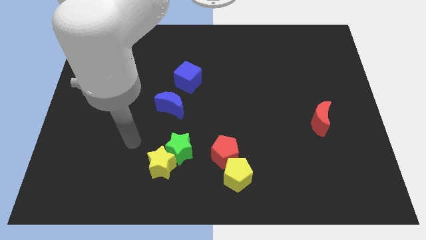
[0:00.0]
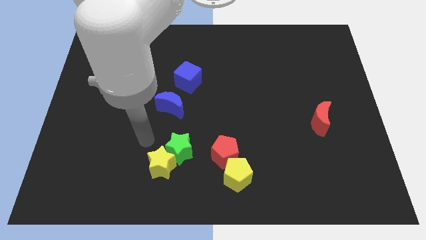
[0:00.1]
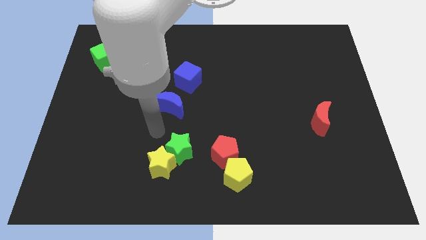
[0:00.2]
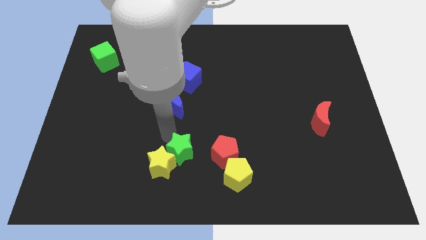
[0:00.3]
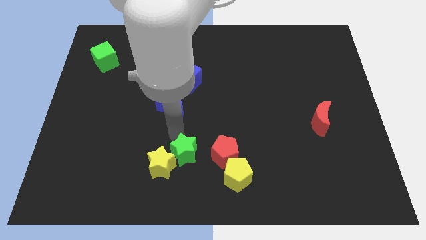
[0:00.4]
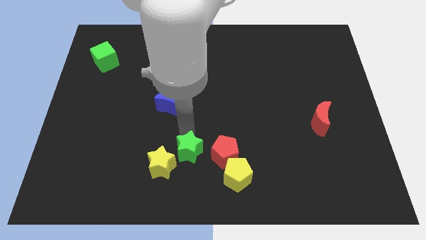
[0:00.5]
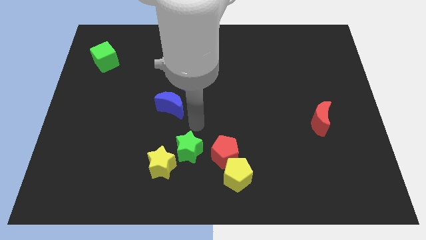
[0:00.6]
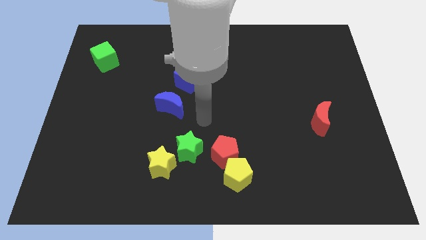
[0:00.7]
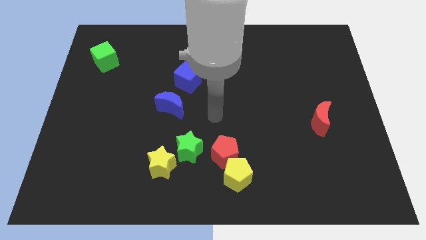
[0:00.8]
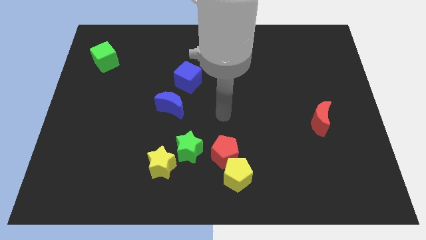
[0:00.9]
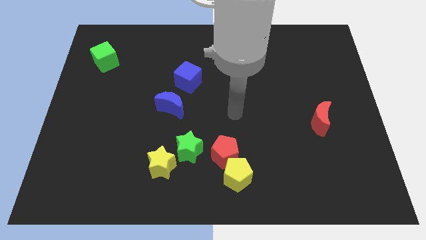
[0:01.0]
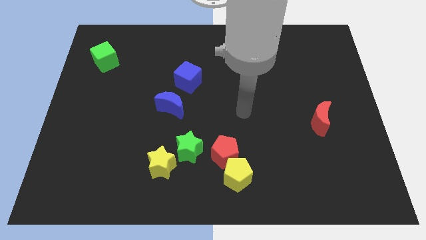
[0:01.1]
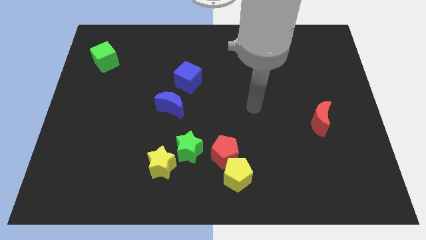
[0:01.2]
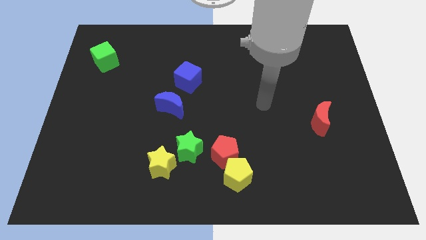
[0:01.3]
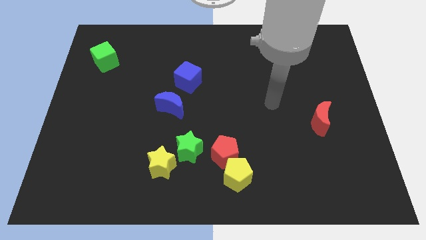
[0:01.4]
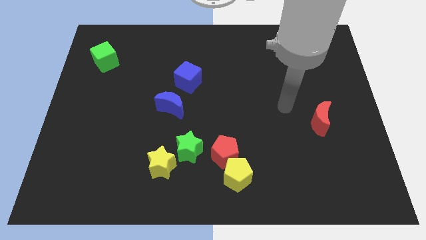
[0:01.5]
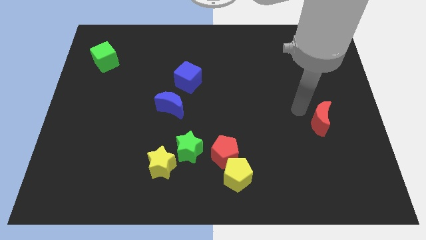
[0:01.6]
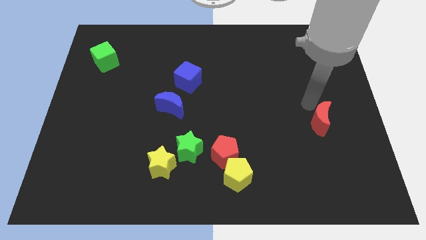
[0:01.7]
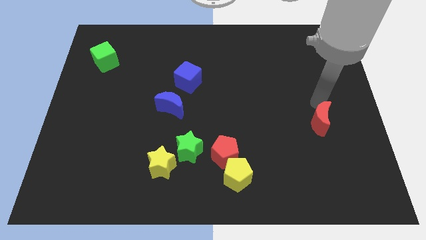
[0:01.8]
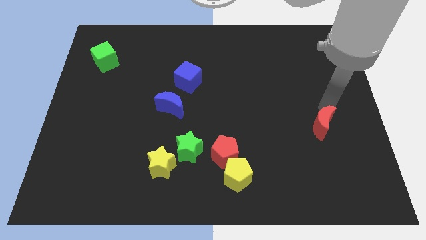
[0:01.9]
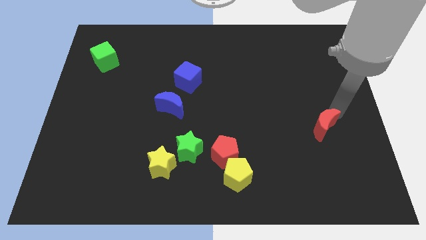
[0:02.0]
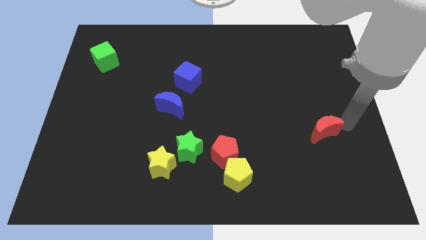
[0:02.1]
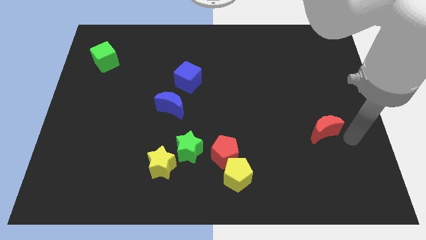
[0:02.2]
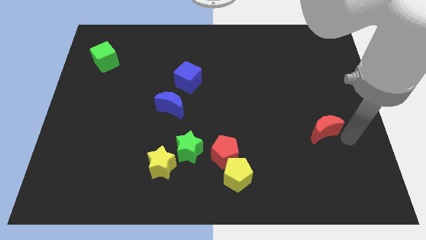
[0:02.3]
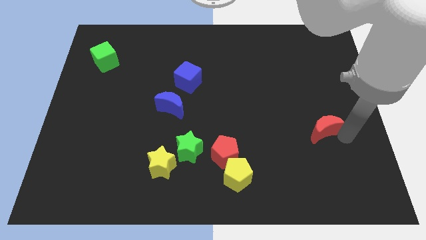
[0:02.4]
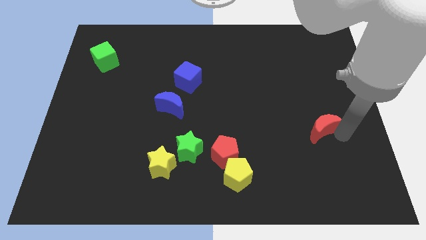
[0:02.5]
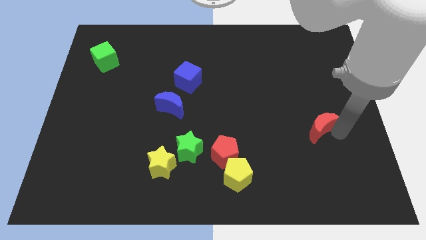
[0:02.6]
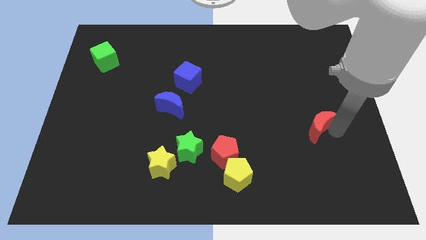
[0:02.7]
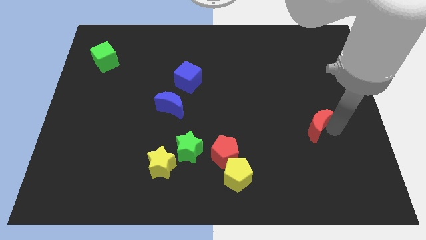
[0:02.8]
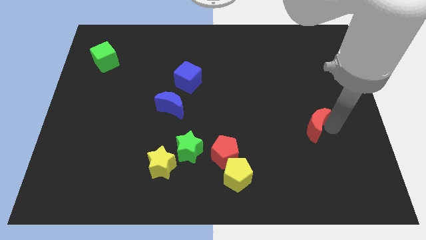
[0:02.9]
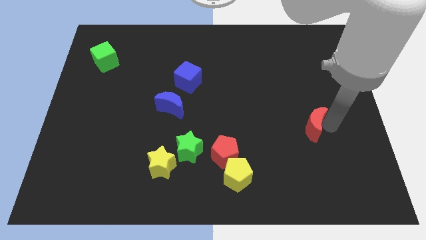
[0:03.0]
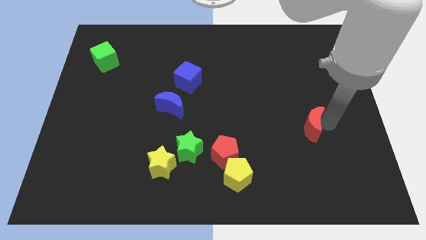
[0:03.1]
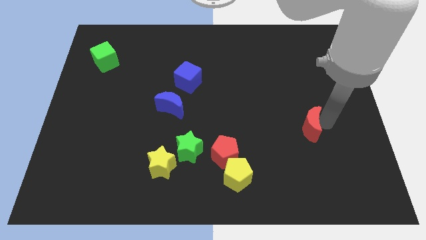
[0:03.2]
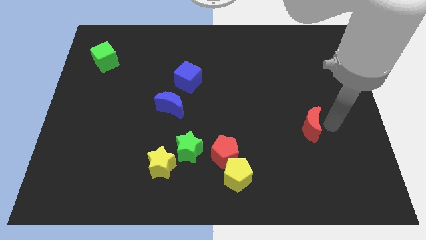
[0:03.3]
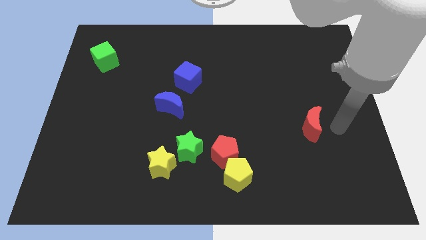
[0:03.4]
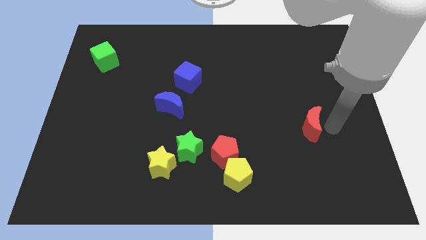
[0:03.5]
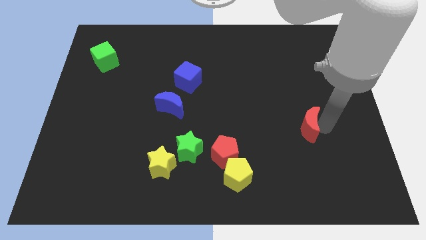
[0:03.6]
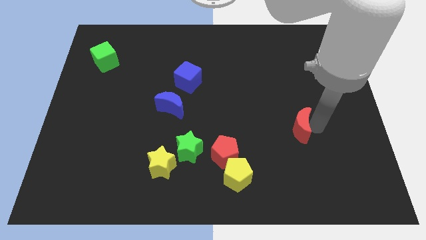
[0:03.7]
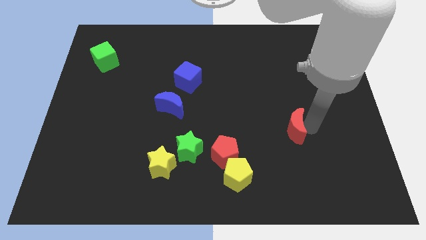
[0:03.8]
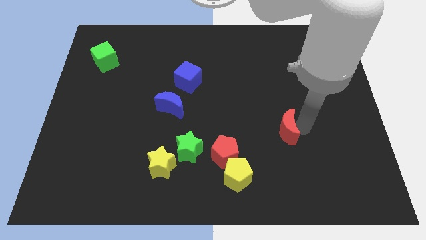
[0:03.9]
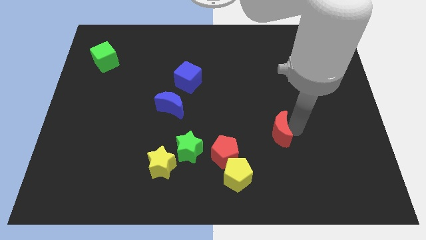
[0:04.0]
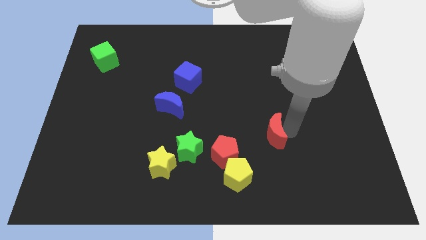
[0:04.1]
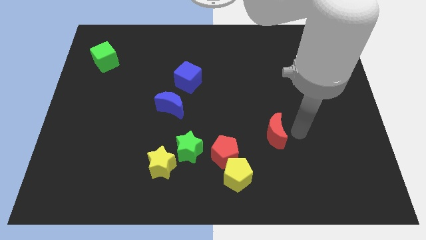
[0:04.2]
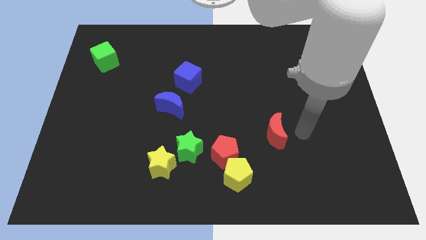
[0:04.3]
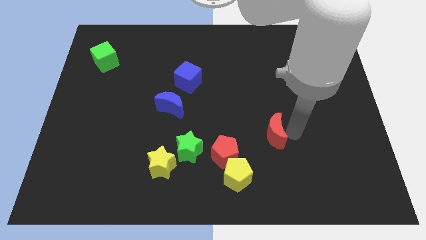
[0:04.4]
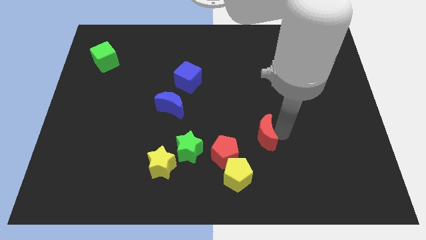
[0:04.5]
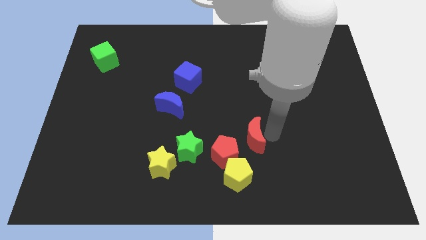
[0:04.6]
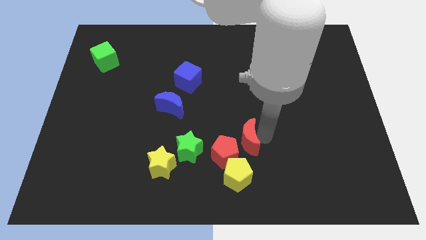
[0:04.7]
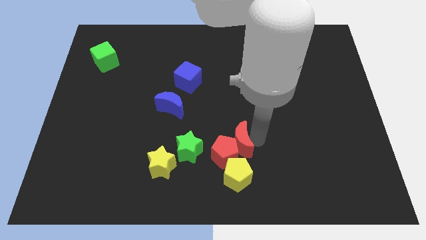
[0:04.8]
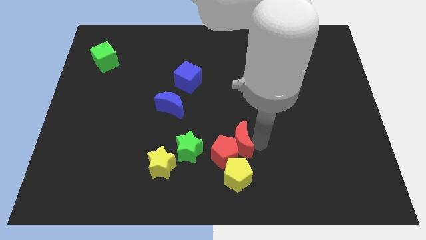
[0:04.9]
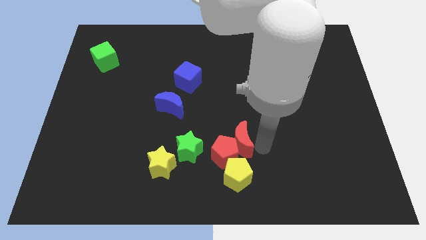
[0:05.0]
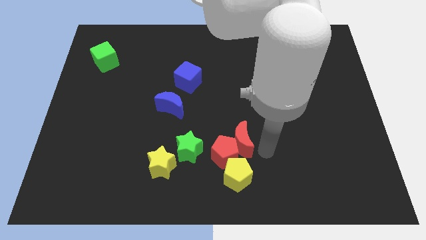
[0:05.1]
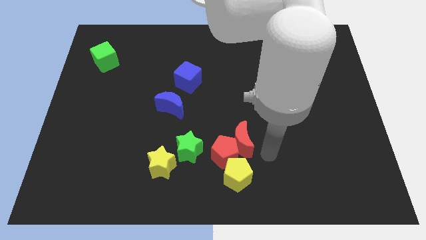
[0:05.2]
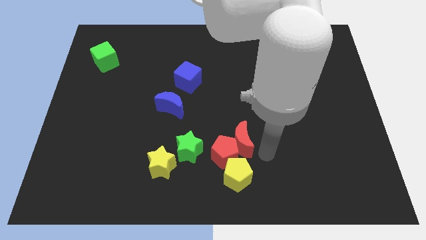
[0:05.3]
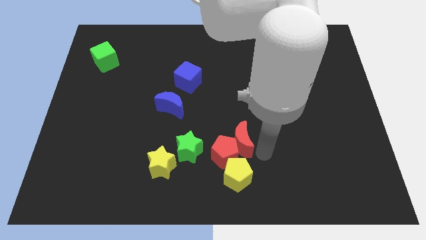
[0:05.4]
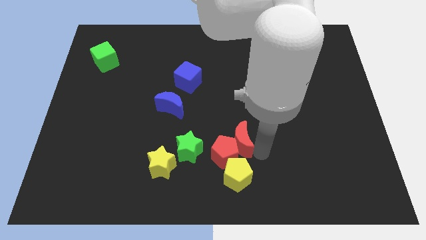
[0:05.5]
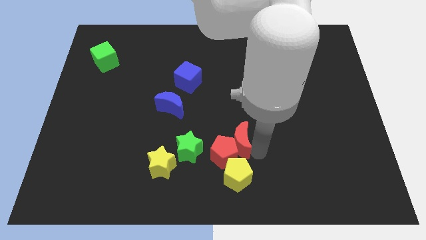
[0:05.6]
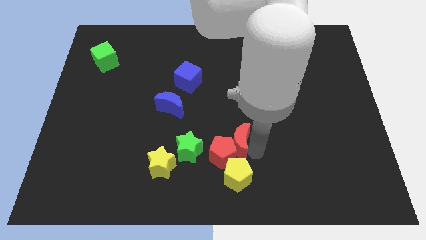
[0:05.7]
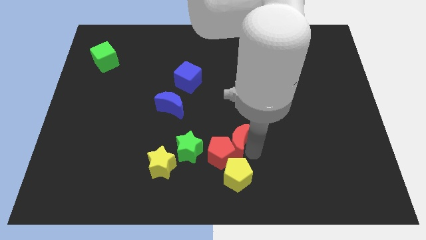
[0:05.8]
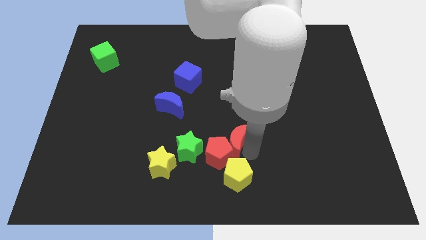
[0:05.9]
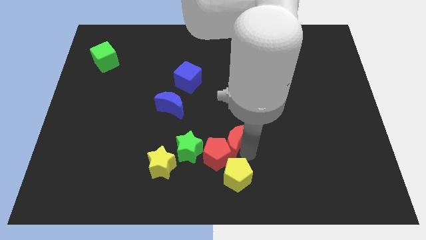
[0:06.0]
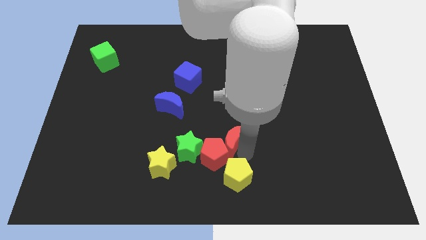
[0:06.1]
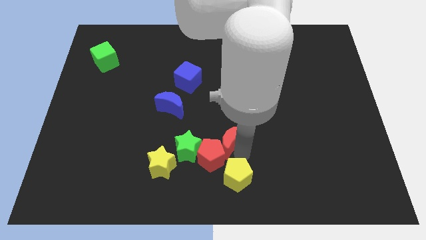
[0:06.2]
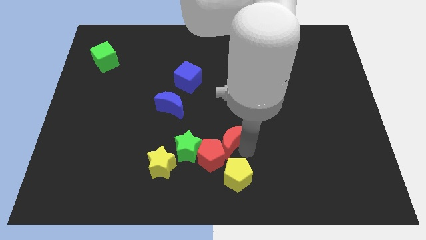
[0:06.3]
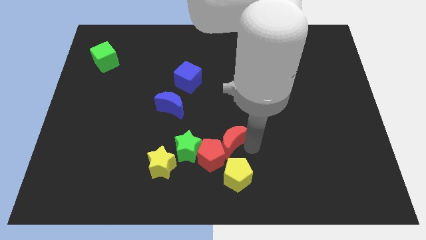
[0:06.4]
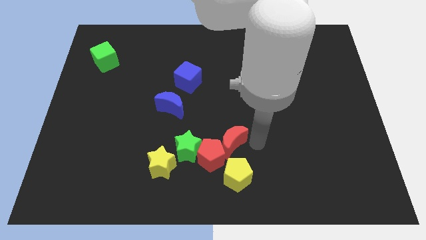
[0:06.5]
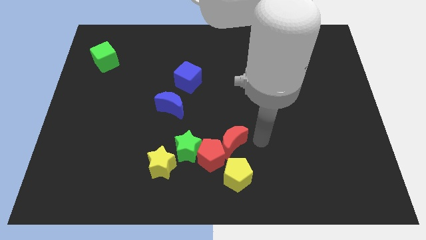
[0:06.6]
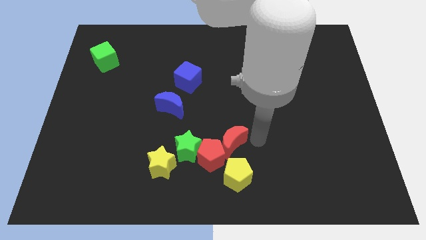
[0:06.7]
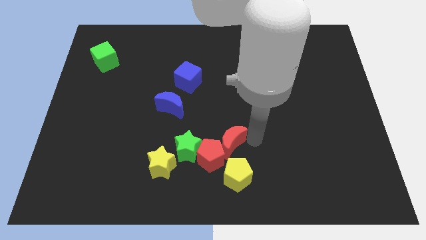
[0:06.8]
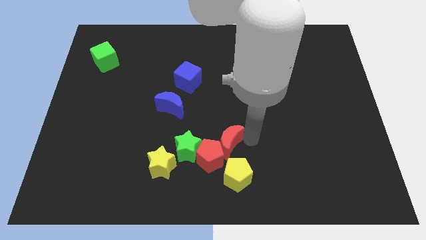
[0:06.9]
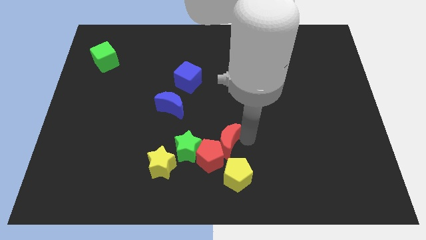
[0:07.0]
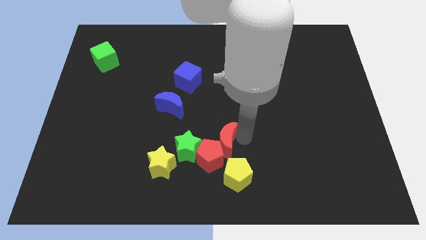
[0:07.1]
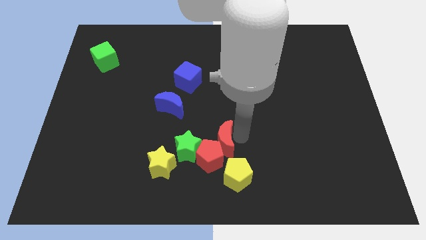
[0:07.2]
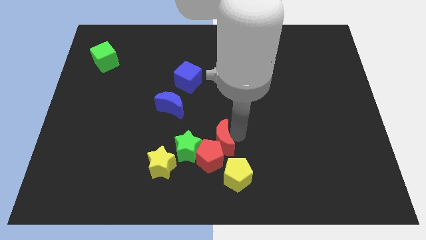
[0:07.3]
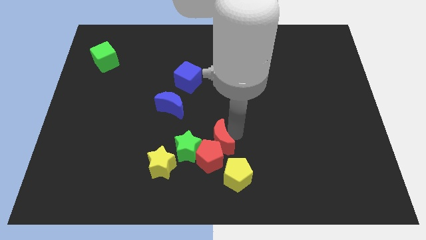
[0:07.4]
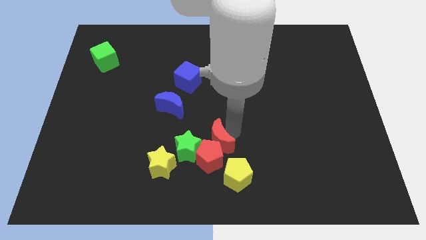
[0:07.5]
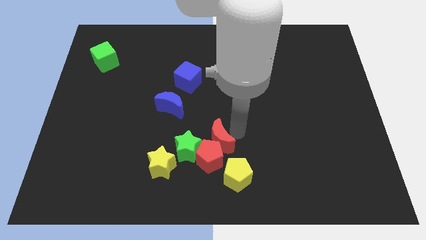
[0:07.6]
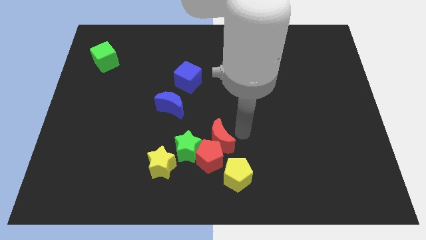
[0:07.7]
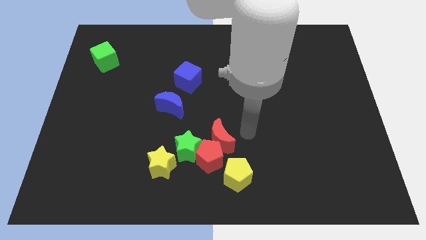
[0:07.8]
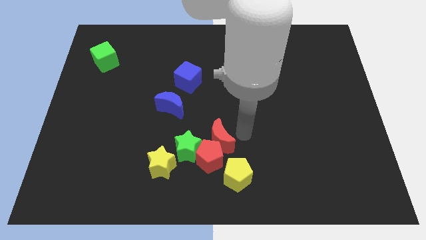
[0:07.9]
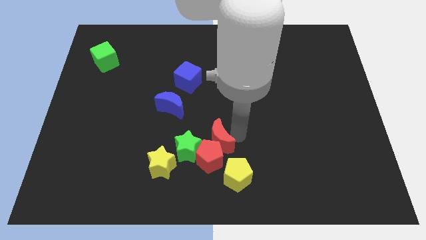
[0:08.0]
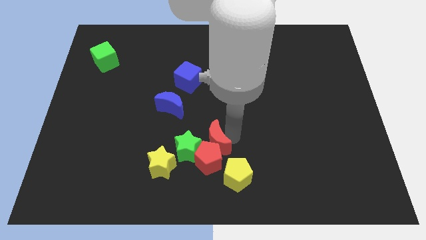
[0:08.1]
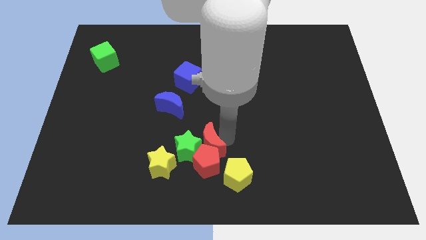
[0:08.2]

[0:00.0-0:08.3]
put the red moon towards the green star
